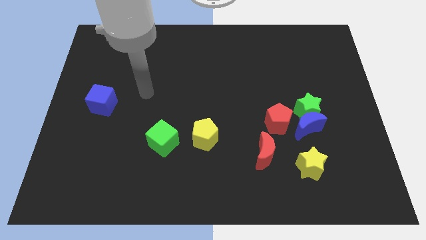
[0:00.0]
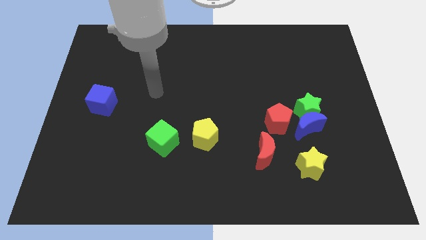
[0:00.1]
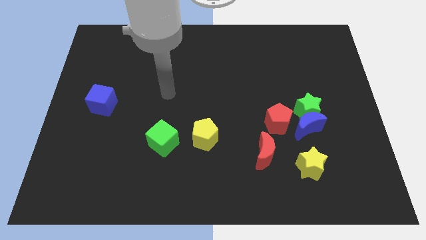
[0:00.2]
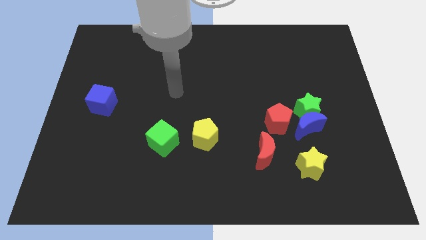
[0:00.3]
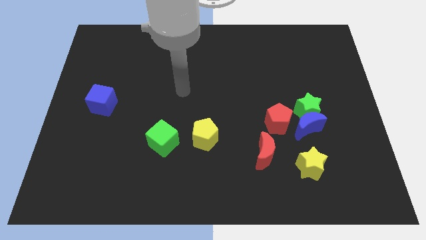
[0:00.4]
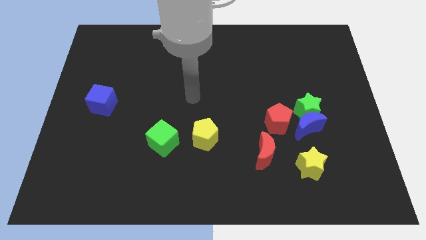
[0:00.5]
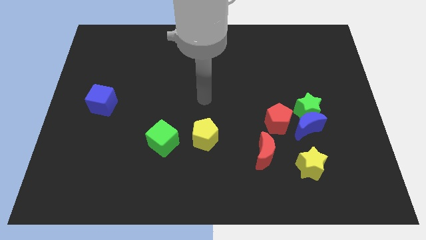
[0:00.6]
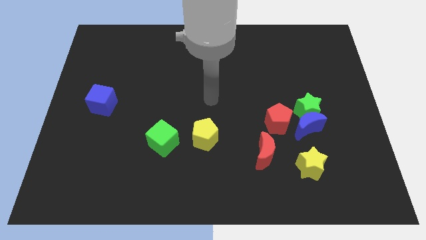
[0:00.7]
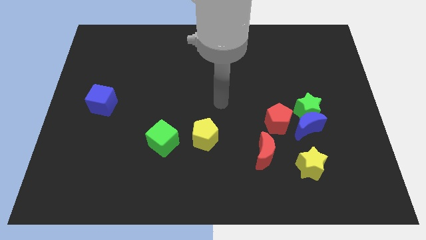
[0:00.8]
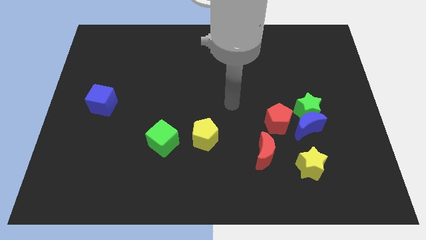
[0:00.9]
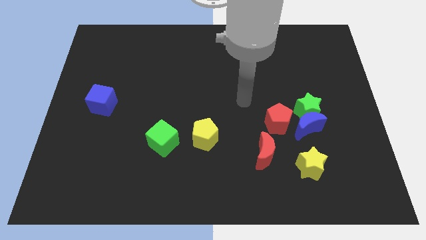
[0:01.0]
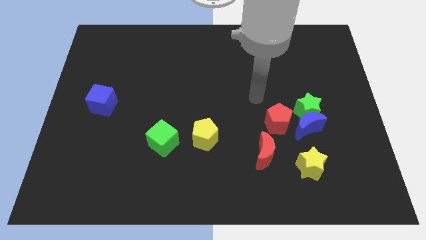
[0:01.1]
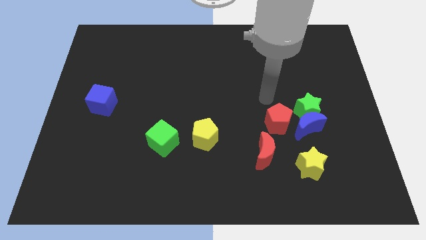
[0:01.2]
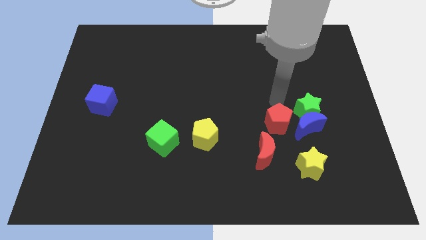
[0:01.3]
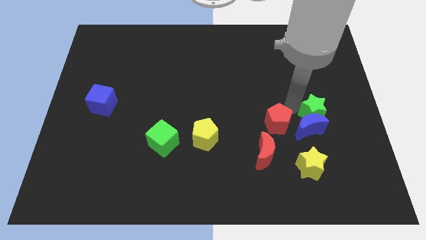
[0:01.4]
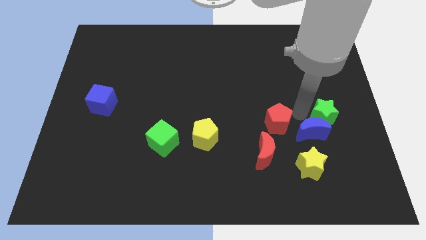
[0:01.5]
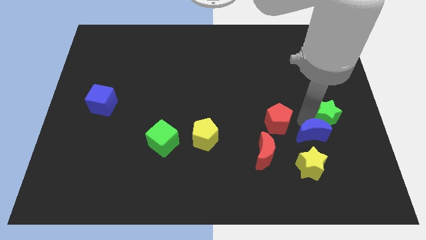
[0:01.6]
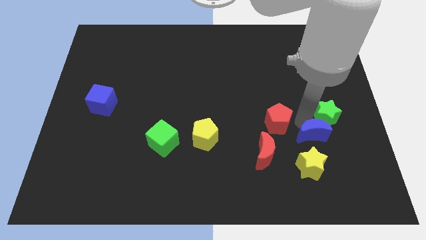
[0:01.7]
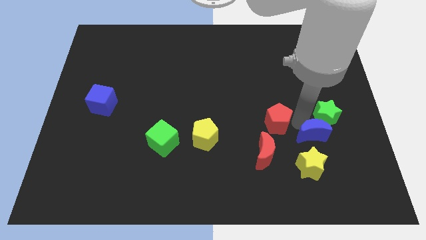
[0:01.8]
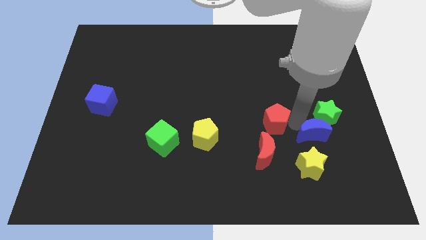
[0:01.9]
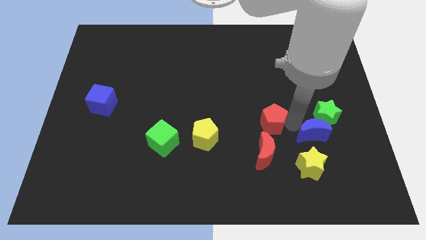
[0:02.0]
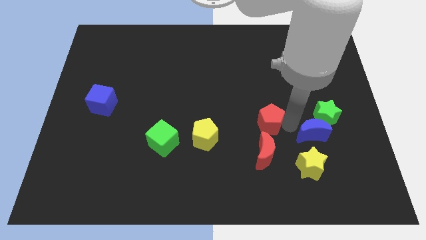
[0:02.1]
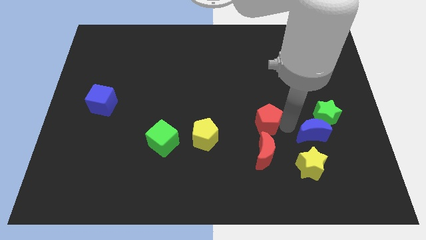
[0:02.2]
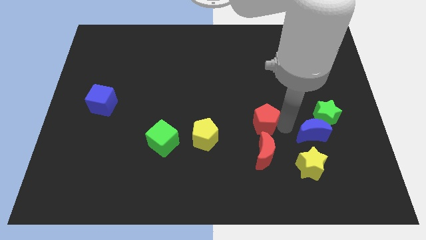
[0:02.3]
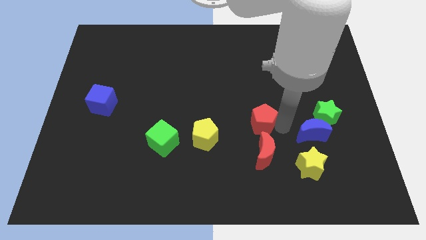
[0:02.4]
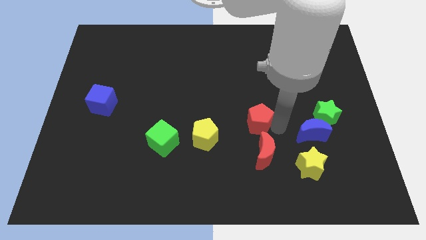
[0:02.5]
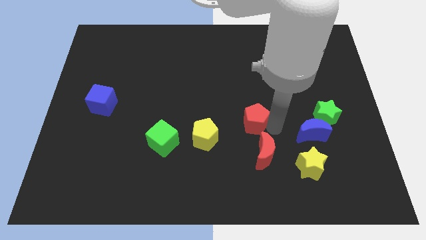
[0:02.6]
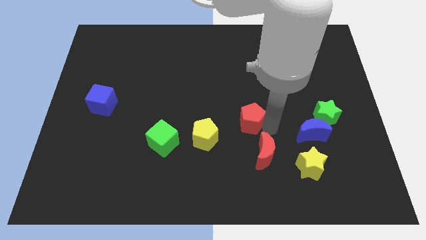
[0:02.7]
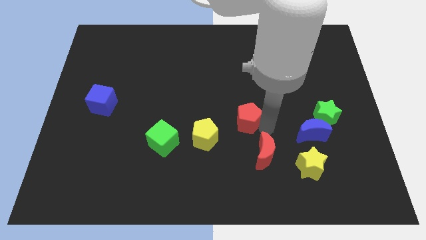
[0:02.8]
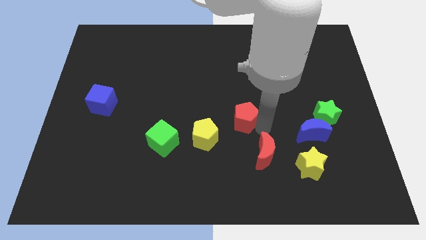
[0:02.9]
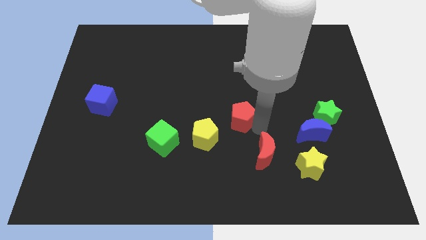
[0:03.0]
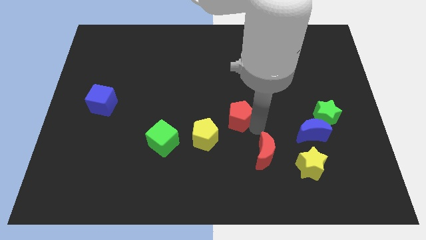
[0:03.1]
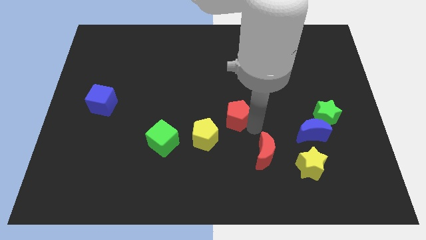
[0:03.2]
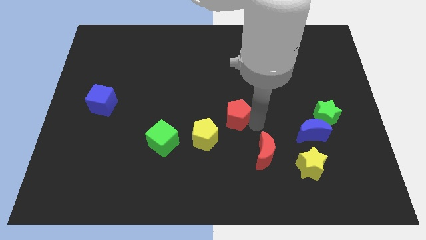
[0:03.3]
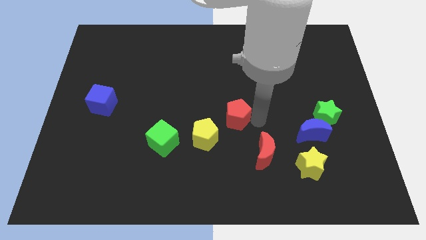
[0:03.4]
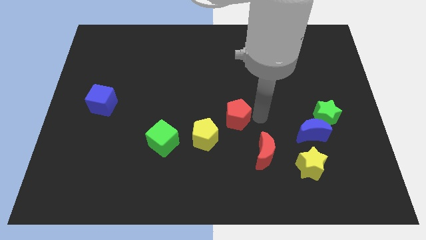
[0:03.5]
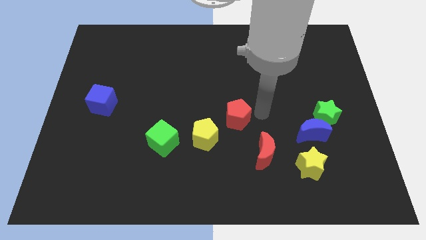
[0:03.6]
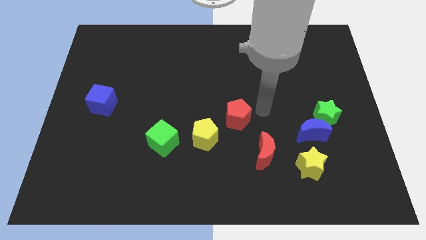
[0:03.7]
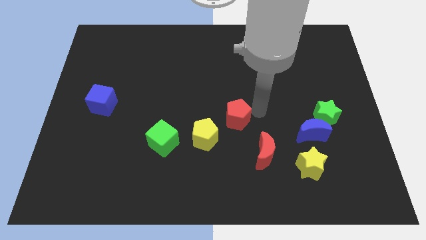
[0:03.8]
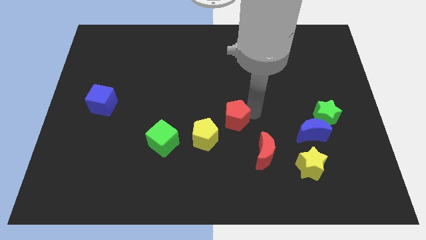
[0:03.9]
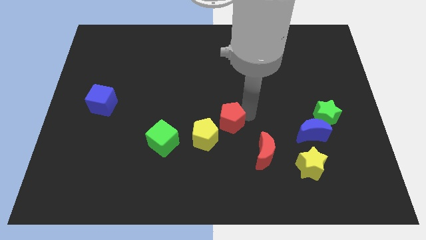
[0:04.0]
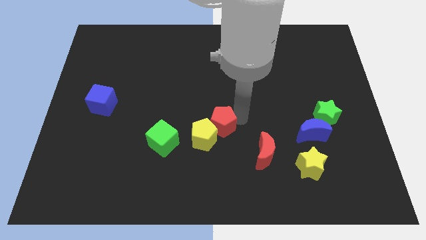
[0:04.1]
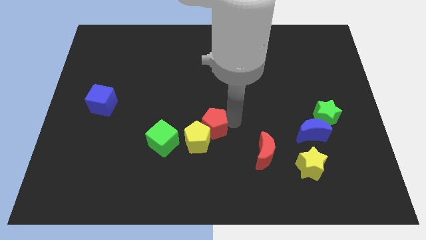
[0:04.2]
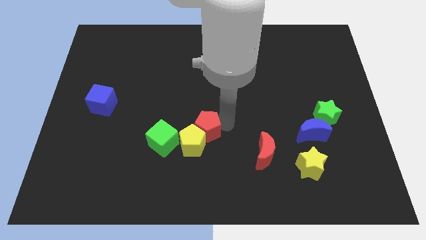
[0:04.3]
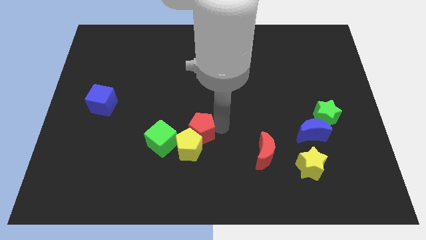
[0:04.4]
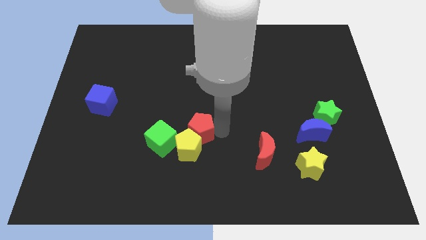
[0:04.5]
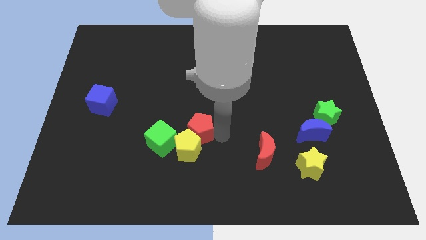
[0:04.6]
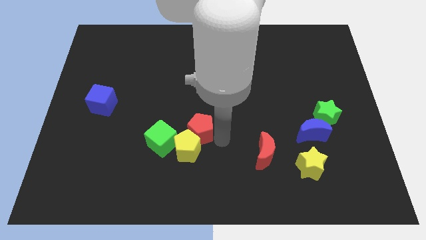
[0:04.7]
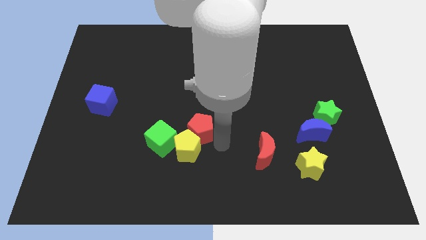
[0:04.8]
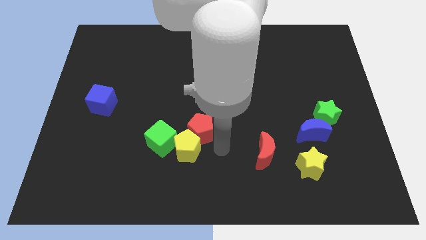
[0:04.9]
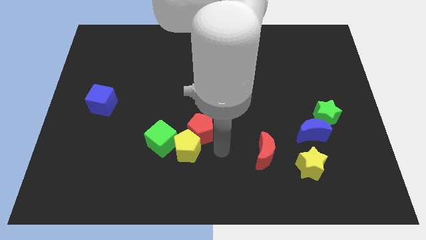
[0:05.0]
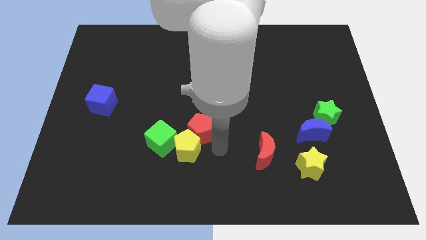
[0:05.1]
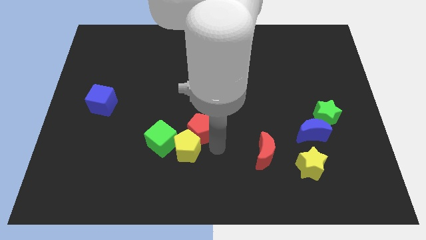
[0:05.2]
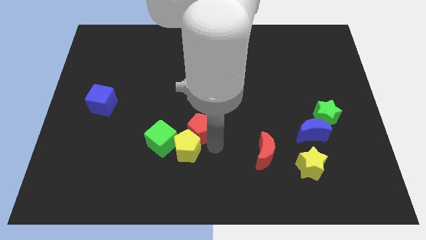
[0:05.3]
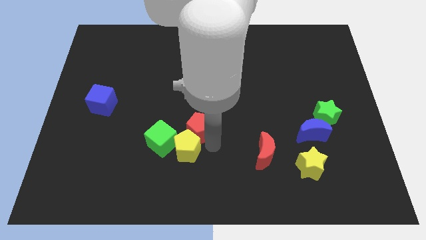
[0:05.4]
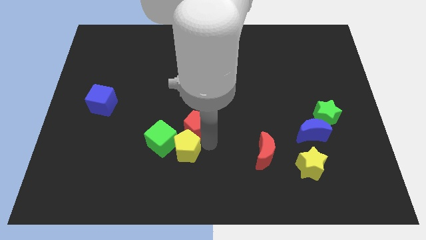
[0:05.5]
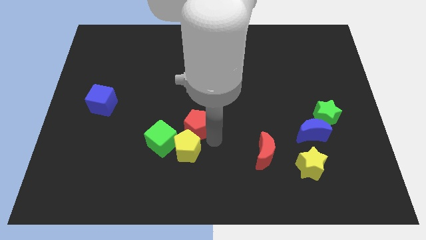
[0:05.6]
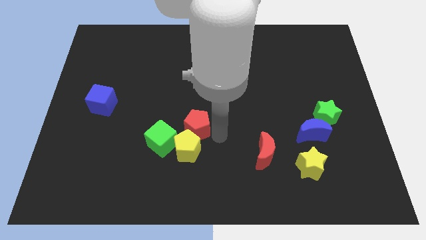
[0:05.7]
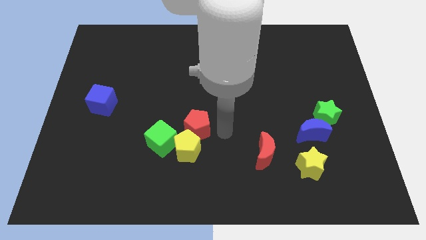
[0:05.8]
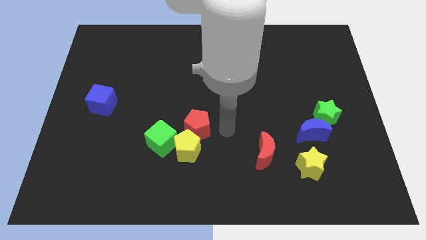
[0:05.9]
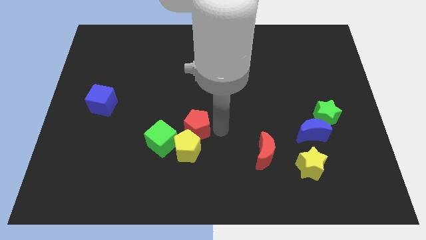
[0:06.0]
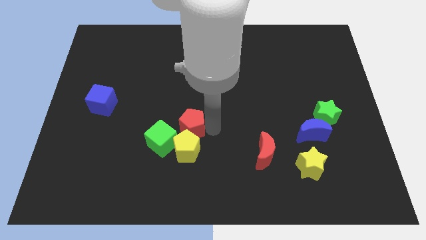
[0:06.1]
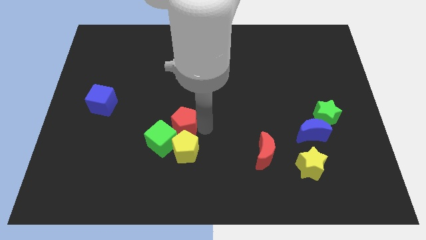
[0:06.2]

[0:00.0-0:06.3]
move the red pentagon to the left

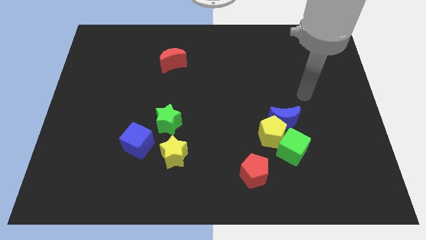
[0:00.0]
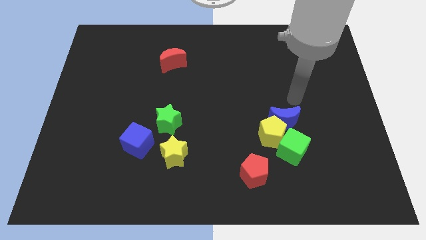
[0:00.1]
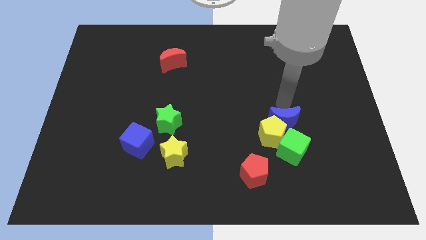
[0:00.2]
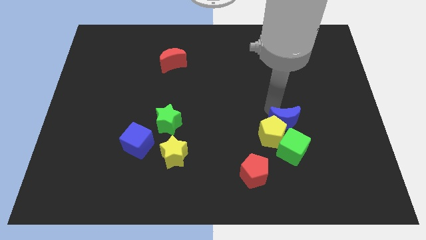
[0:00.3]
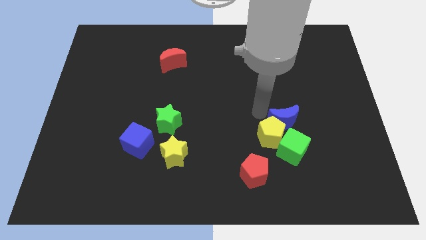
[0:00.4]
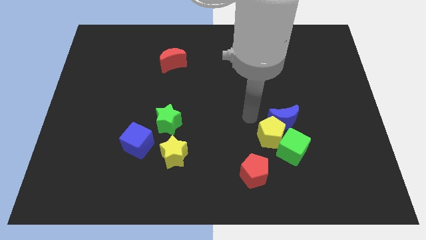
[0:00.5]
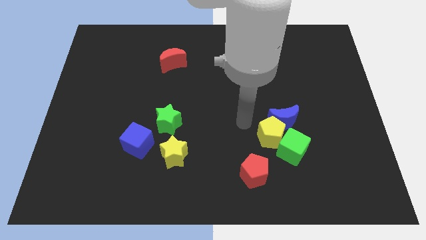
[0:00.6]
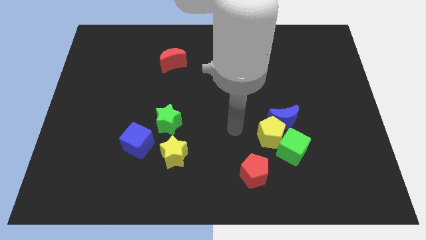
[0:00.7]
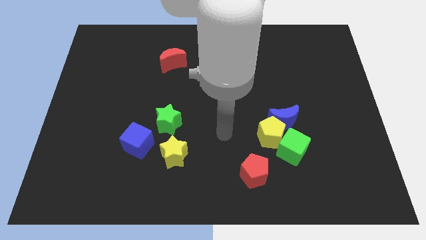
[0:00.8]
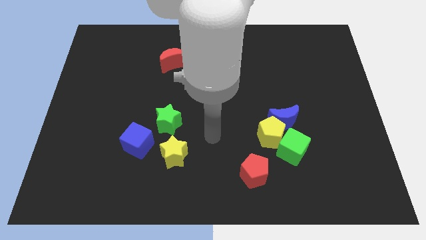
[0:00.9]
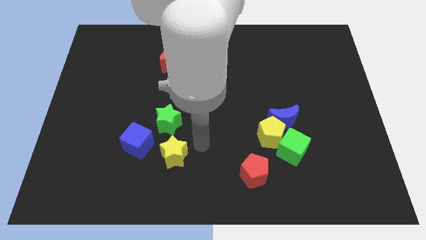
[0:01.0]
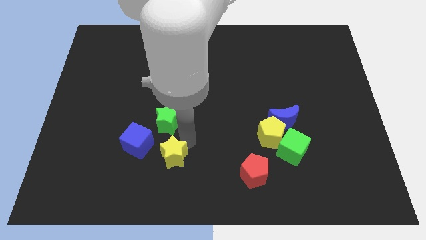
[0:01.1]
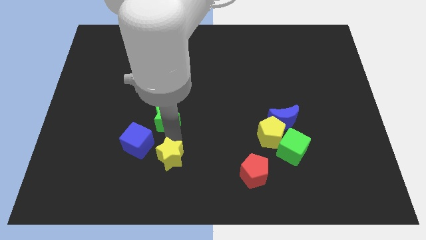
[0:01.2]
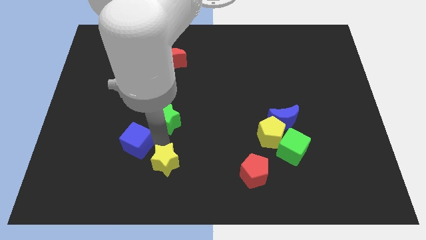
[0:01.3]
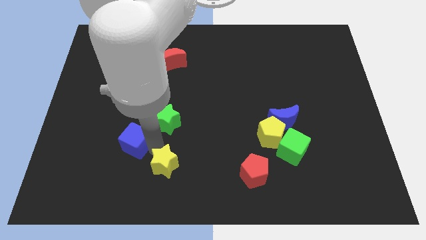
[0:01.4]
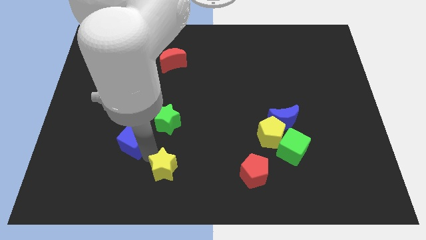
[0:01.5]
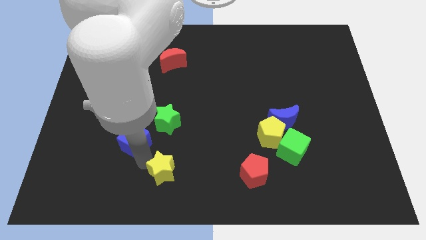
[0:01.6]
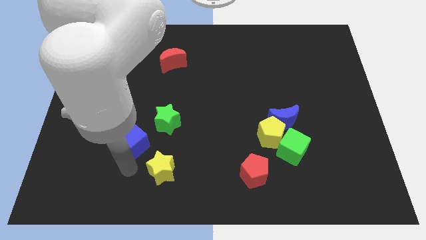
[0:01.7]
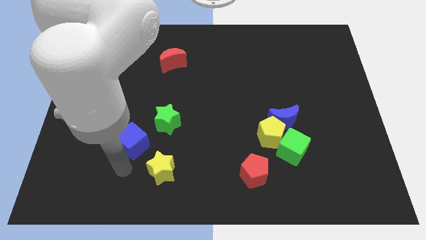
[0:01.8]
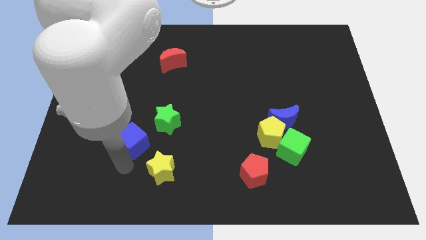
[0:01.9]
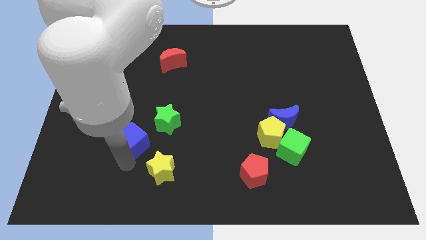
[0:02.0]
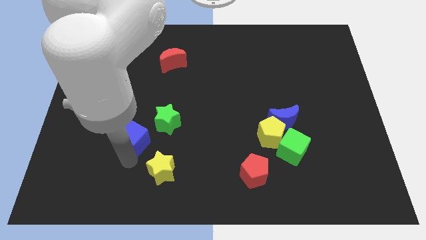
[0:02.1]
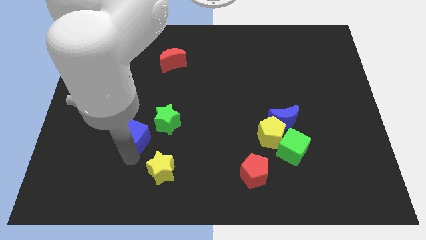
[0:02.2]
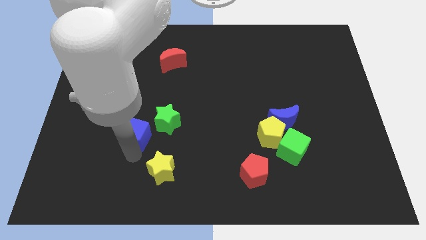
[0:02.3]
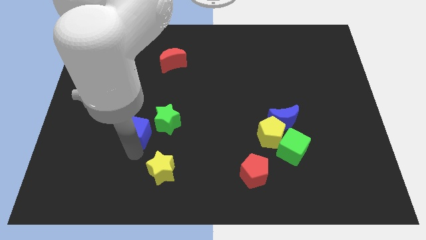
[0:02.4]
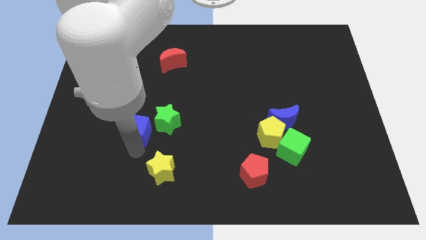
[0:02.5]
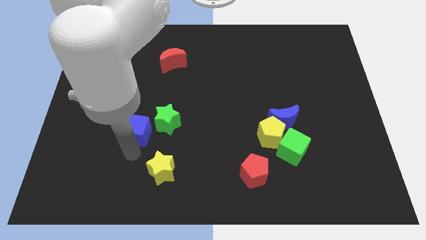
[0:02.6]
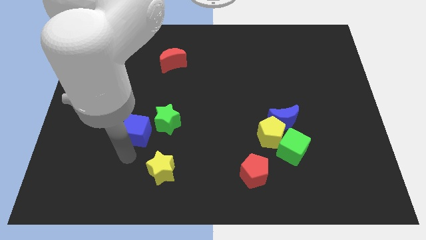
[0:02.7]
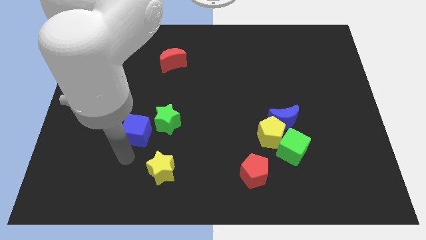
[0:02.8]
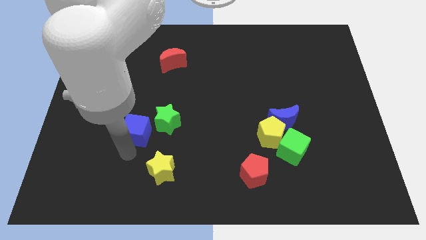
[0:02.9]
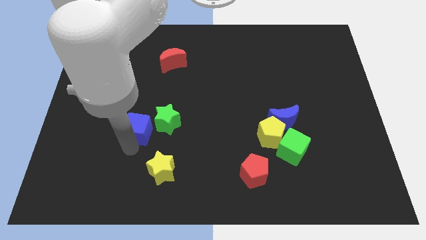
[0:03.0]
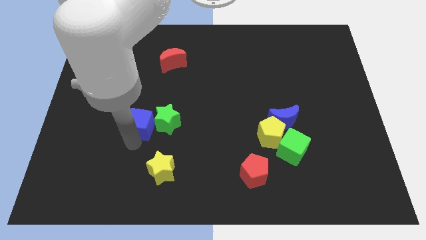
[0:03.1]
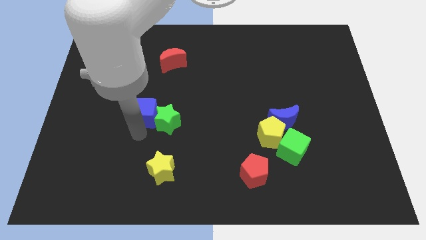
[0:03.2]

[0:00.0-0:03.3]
slightly push the blue cube up
